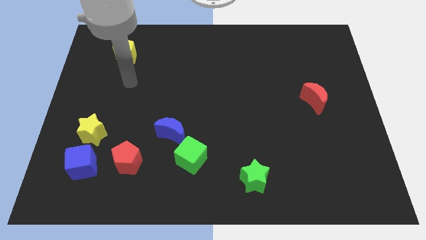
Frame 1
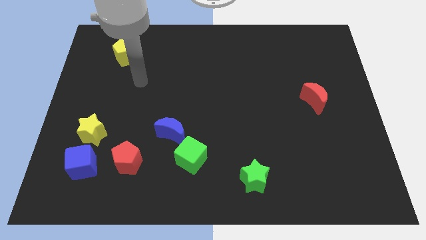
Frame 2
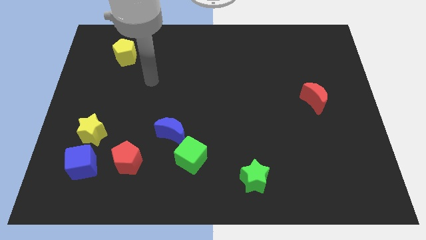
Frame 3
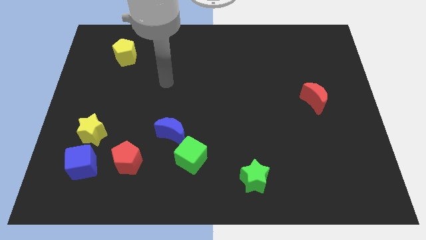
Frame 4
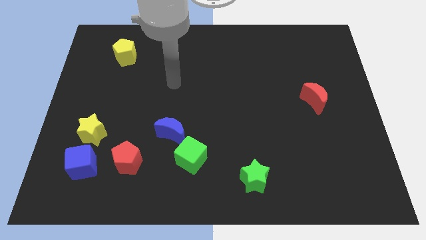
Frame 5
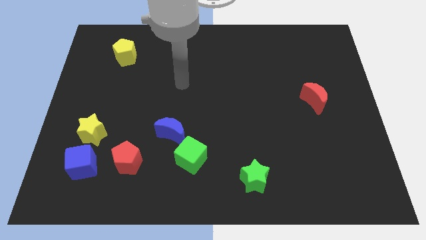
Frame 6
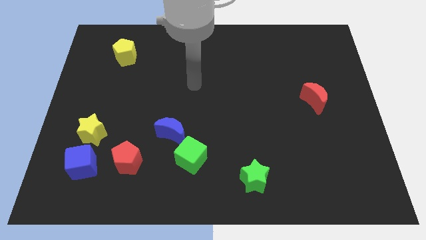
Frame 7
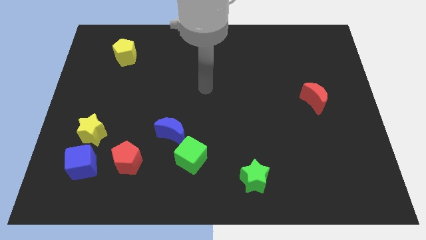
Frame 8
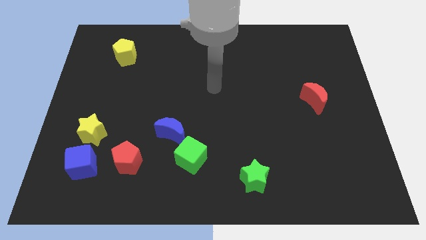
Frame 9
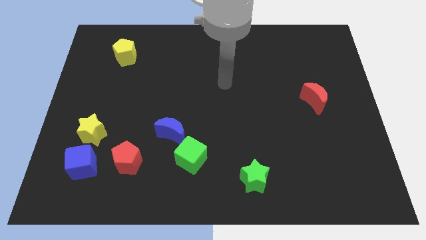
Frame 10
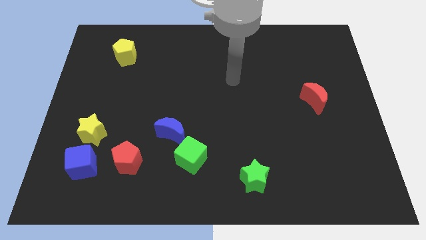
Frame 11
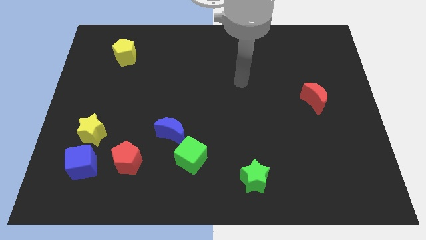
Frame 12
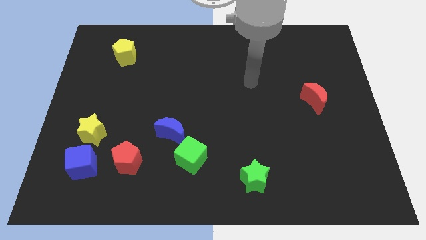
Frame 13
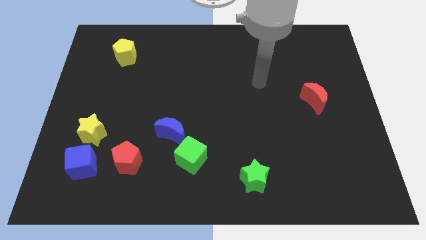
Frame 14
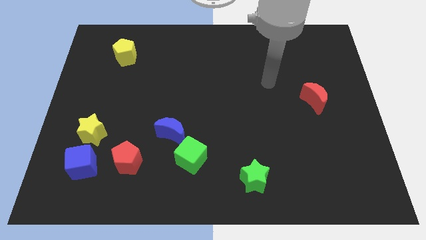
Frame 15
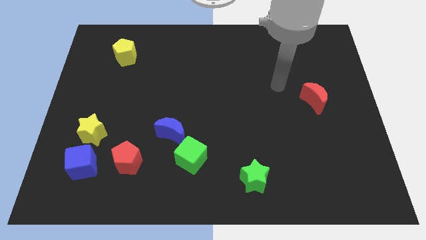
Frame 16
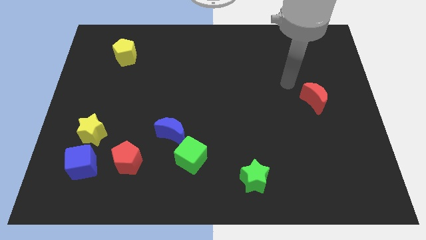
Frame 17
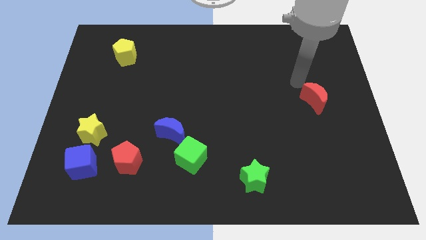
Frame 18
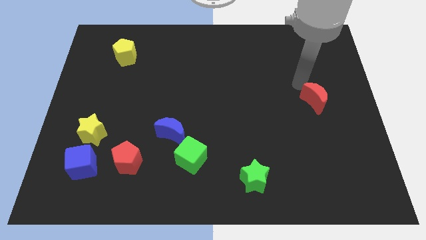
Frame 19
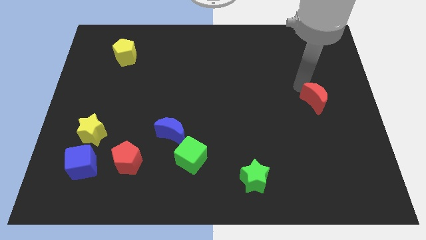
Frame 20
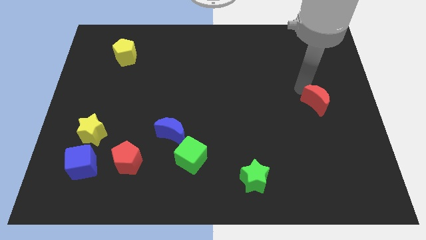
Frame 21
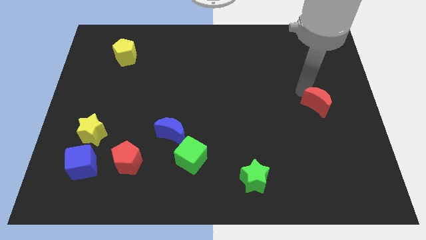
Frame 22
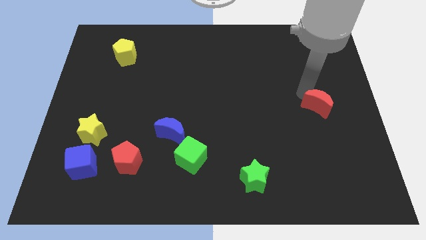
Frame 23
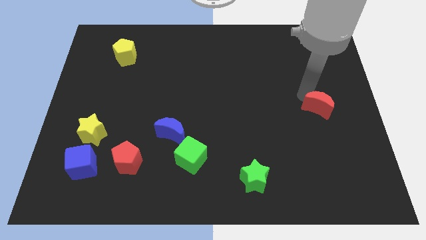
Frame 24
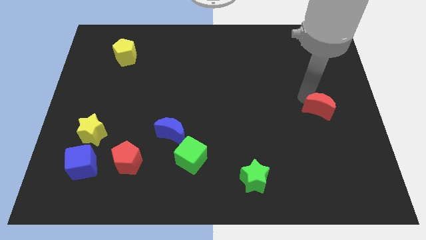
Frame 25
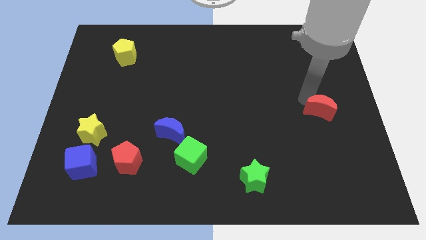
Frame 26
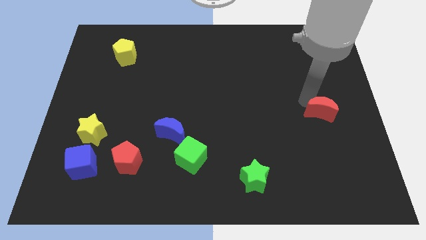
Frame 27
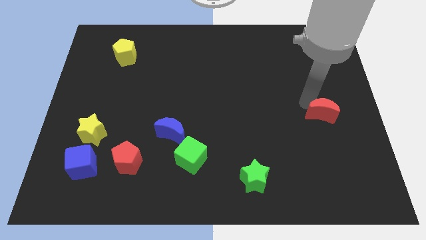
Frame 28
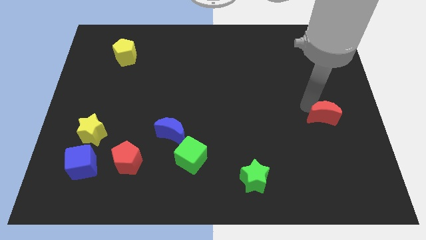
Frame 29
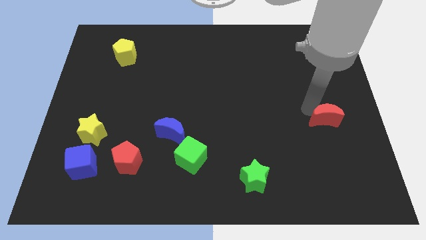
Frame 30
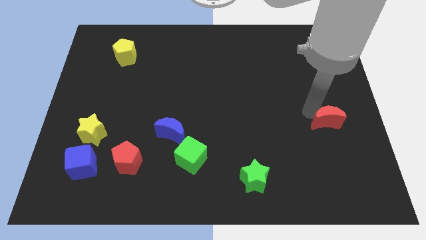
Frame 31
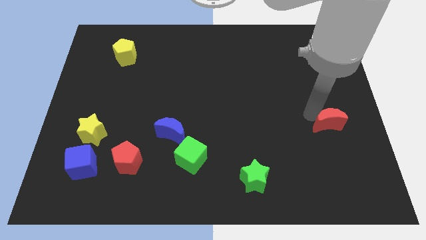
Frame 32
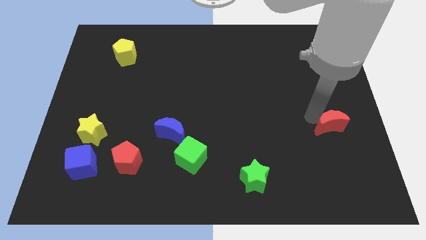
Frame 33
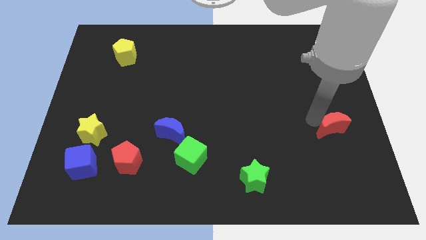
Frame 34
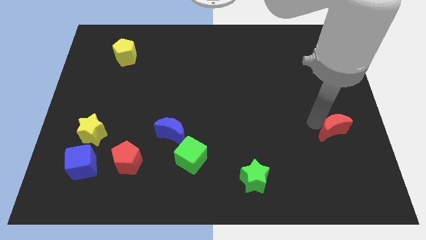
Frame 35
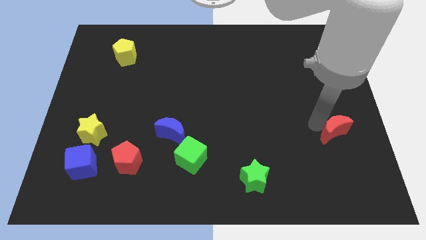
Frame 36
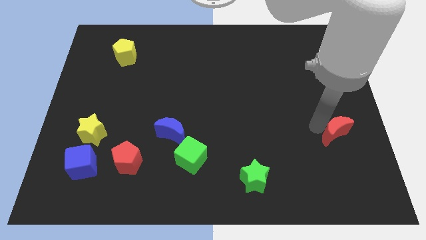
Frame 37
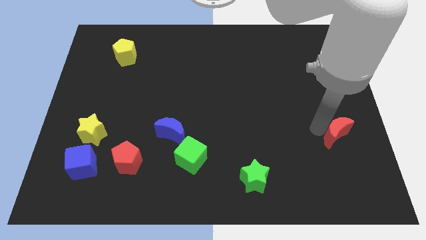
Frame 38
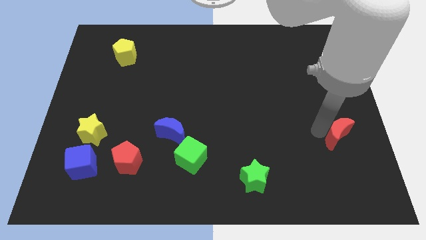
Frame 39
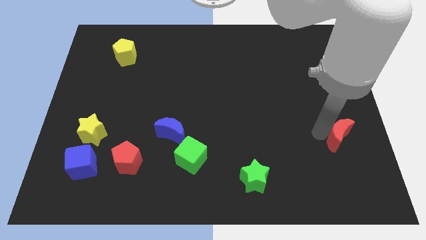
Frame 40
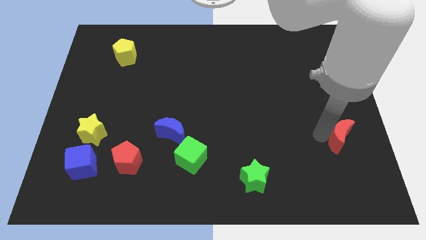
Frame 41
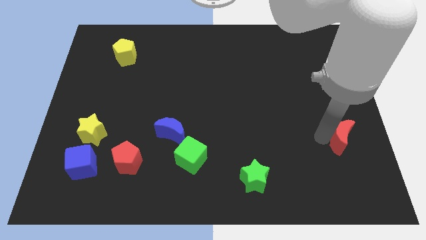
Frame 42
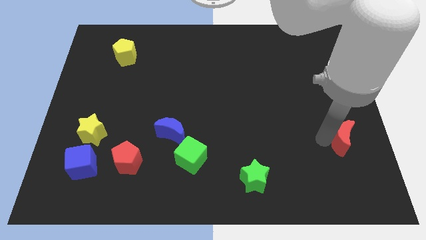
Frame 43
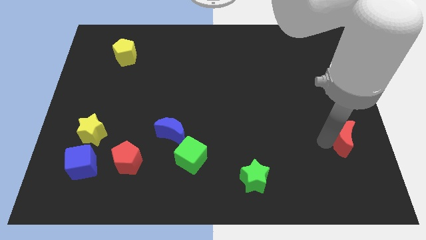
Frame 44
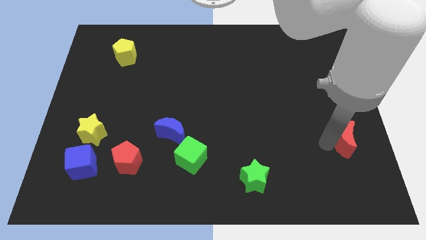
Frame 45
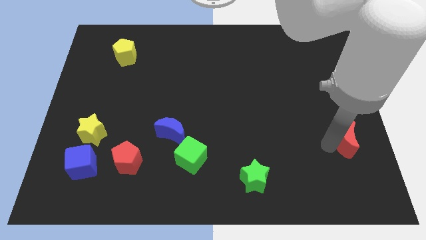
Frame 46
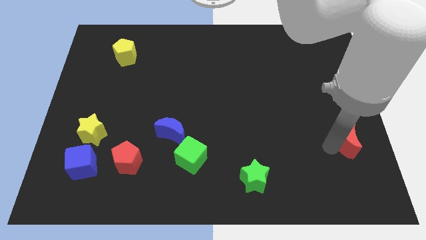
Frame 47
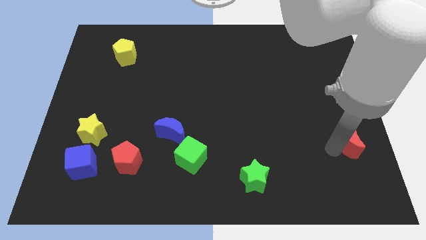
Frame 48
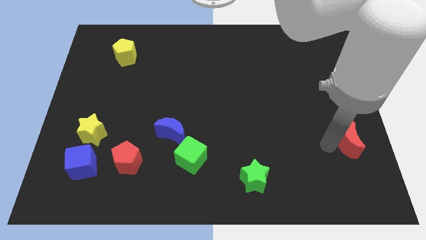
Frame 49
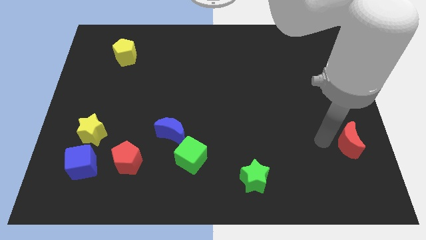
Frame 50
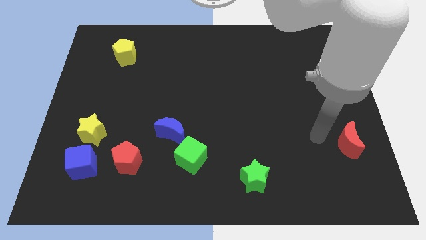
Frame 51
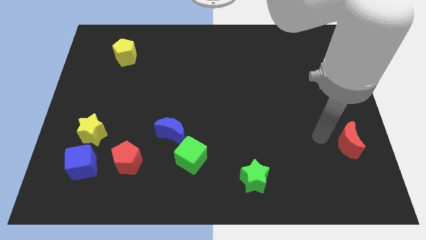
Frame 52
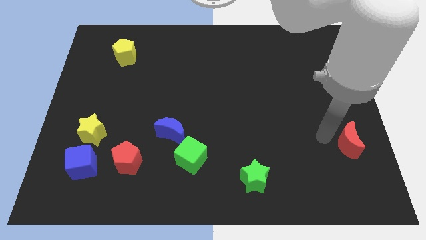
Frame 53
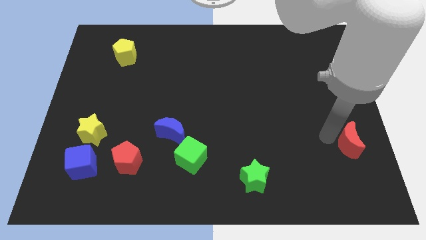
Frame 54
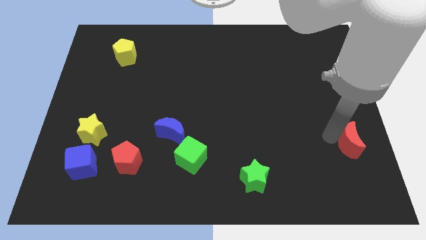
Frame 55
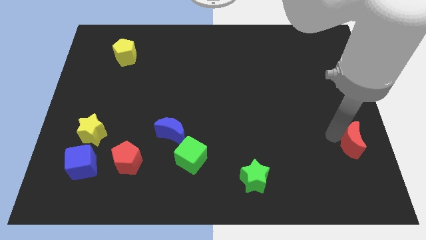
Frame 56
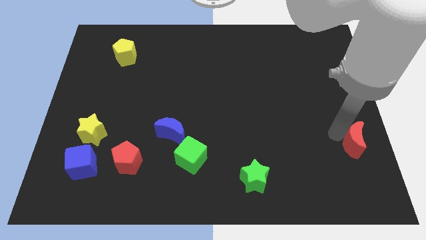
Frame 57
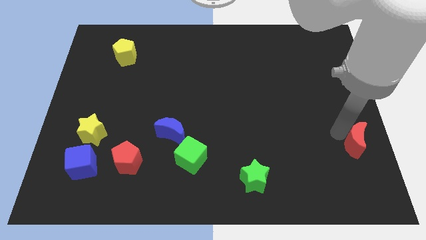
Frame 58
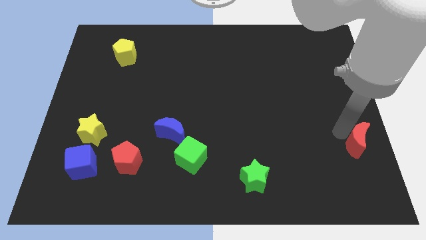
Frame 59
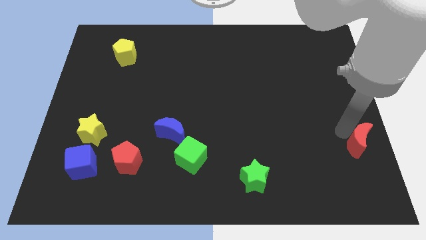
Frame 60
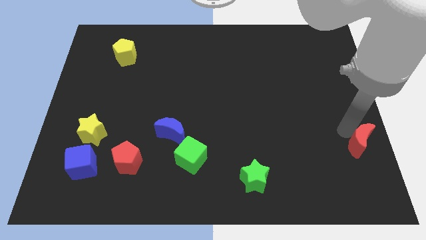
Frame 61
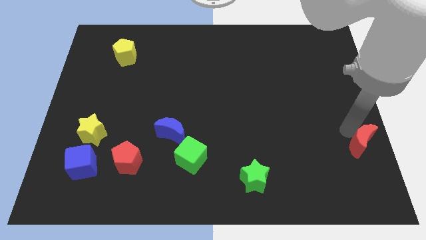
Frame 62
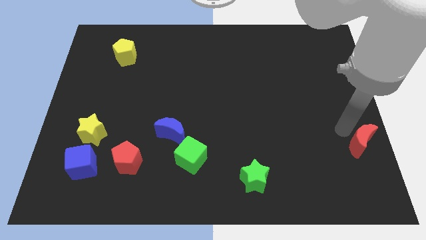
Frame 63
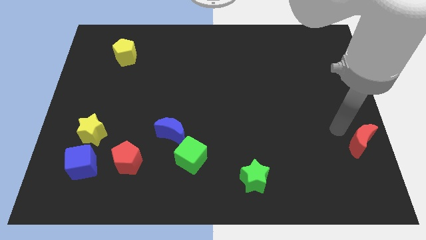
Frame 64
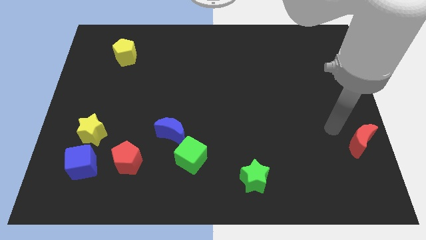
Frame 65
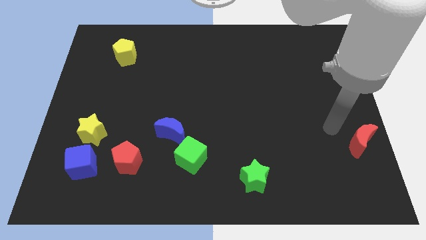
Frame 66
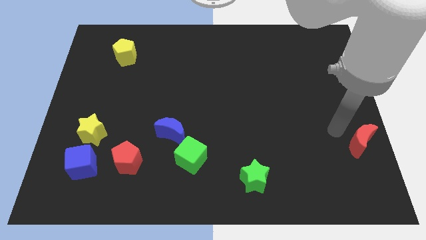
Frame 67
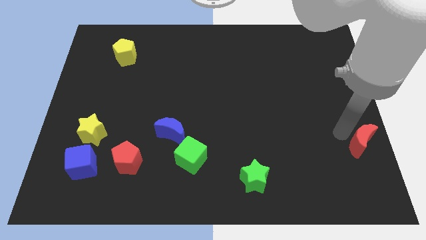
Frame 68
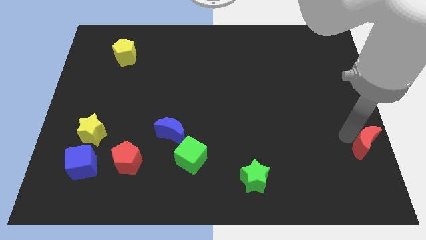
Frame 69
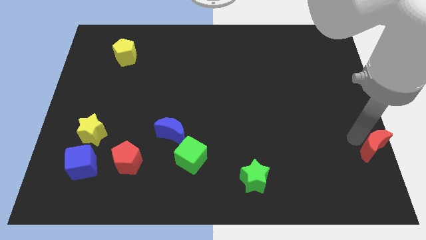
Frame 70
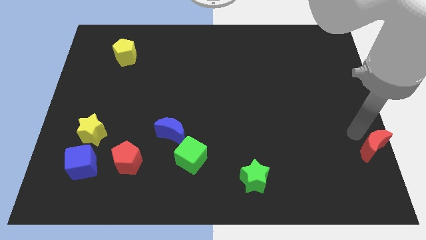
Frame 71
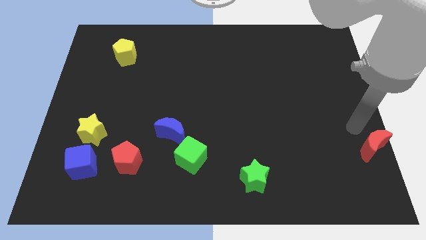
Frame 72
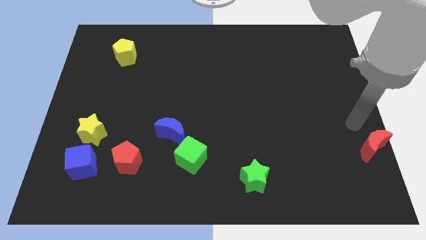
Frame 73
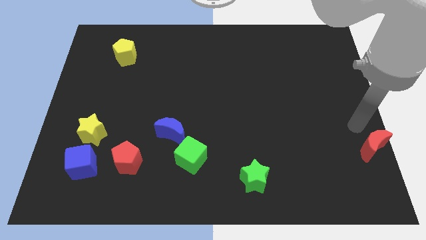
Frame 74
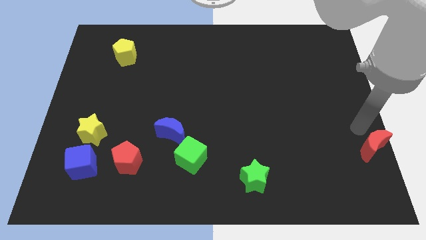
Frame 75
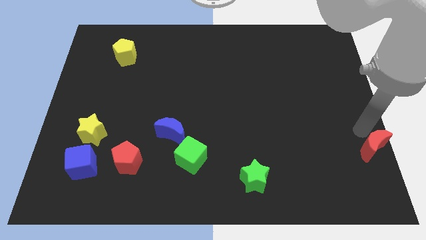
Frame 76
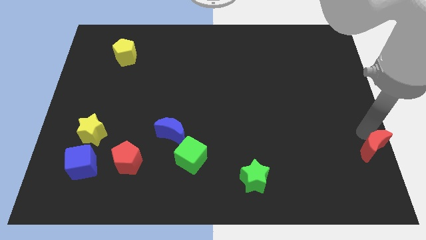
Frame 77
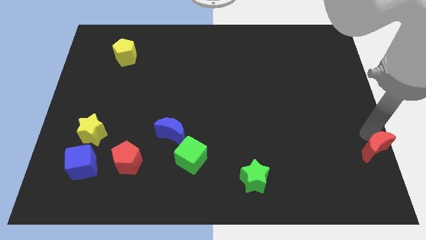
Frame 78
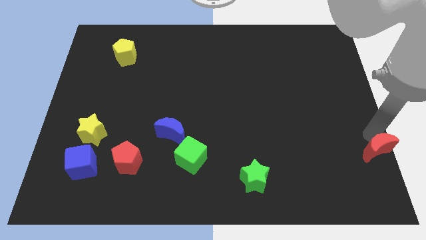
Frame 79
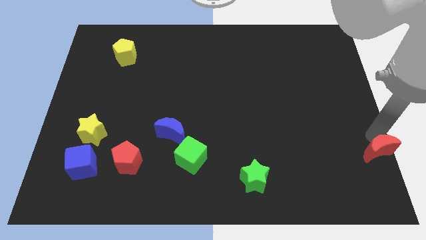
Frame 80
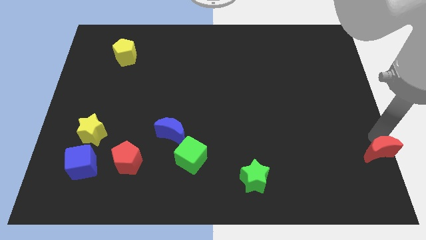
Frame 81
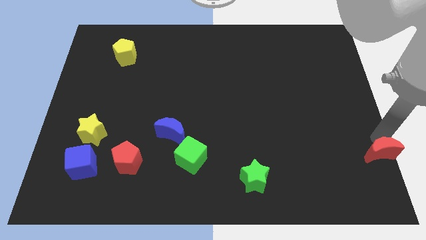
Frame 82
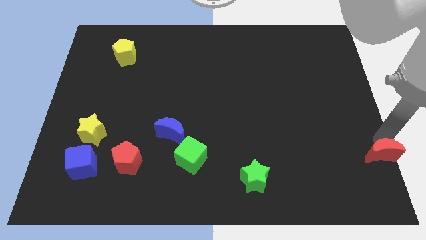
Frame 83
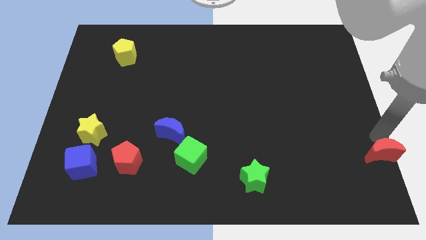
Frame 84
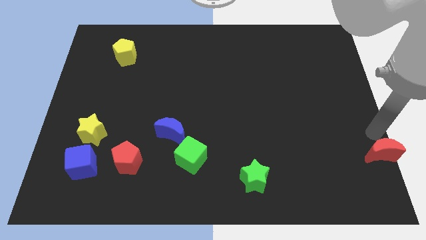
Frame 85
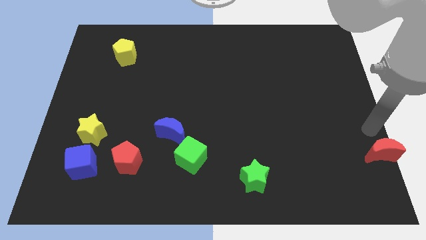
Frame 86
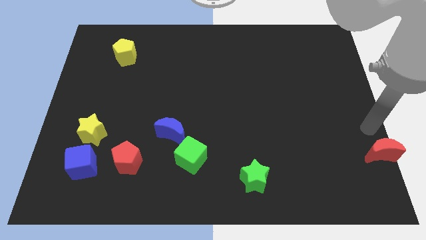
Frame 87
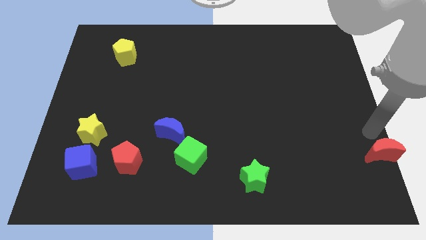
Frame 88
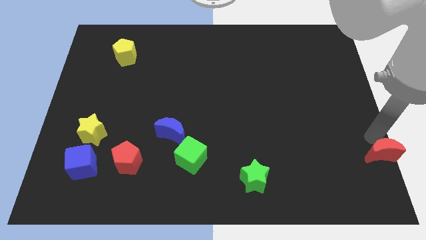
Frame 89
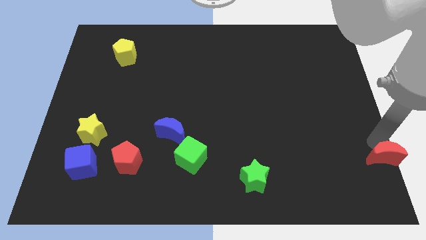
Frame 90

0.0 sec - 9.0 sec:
move the red moon to the bottom right of the board
